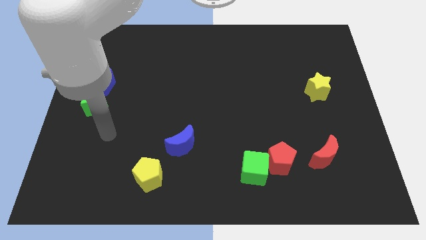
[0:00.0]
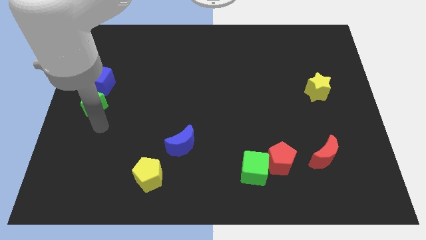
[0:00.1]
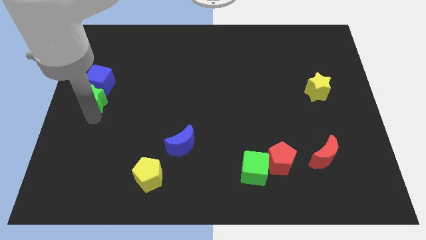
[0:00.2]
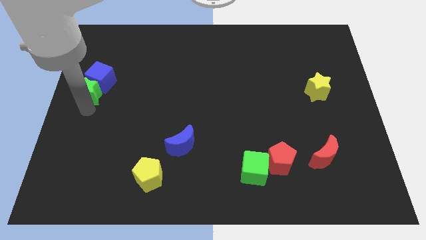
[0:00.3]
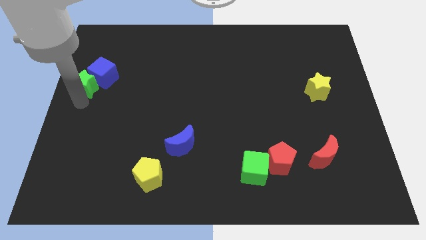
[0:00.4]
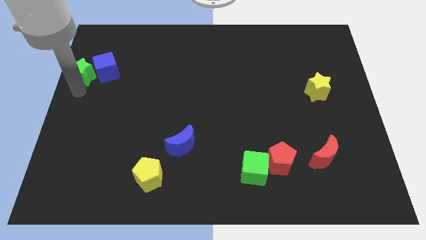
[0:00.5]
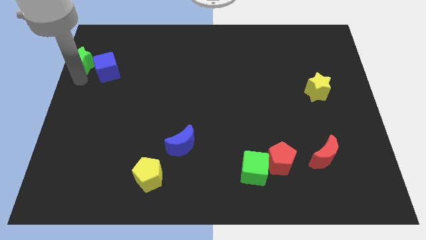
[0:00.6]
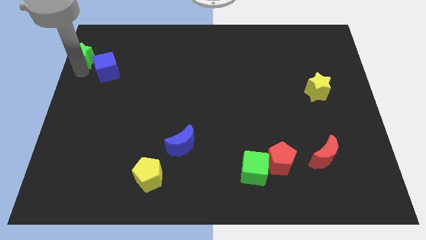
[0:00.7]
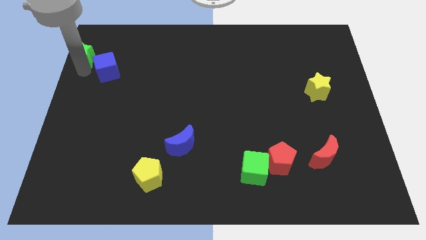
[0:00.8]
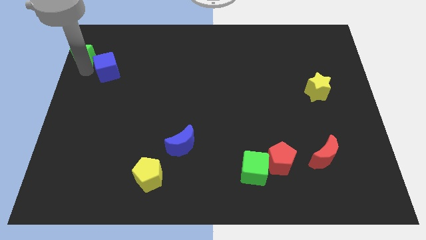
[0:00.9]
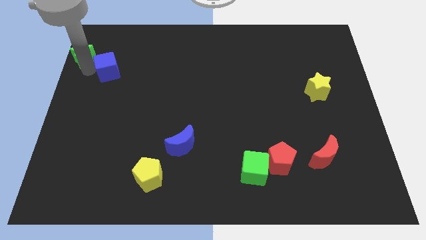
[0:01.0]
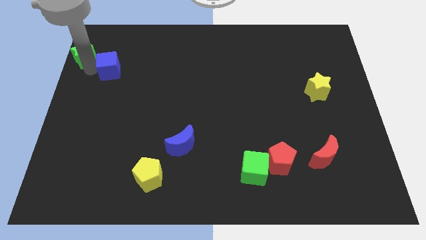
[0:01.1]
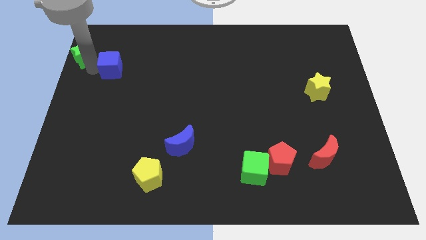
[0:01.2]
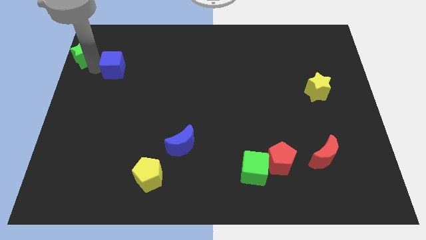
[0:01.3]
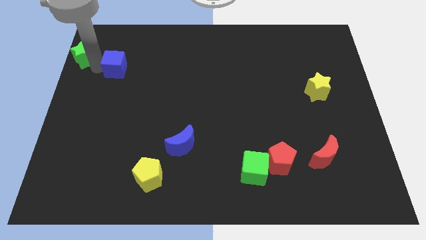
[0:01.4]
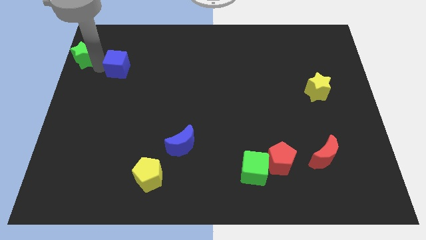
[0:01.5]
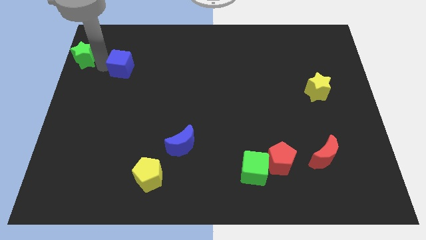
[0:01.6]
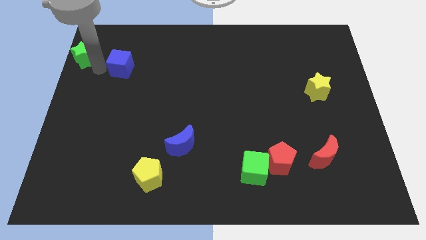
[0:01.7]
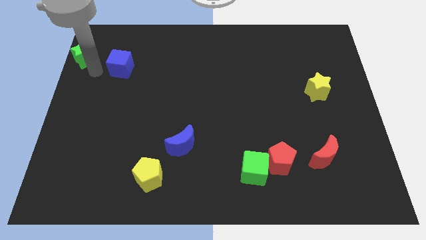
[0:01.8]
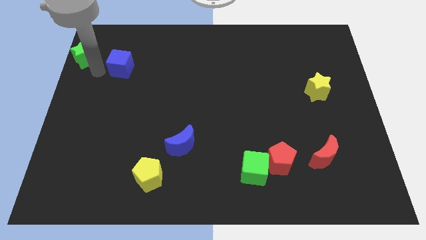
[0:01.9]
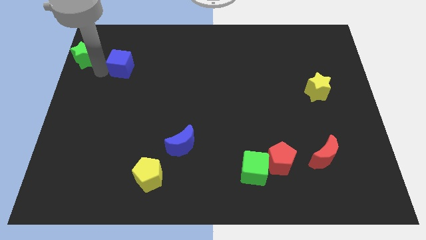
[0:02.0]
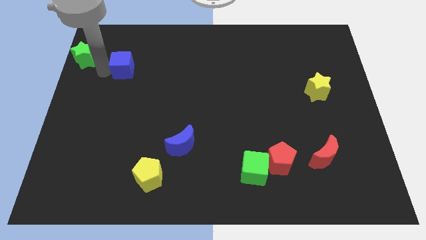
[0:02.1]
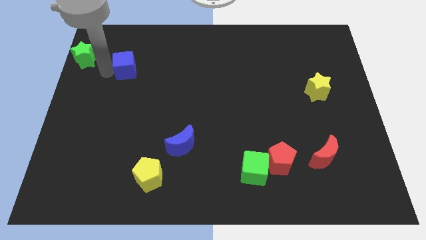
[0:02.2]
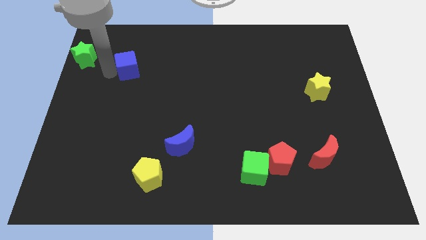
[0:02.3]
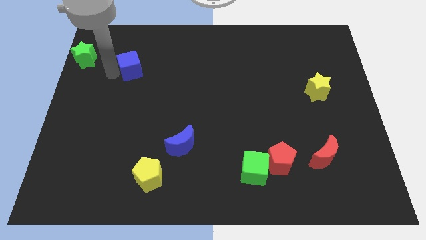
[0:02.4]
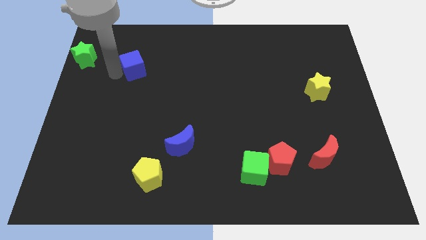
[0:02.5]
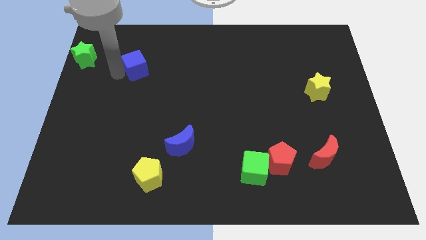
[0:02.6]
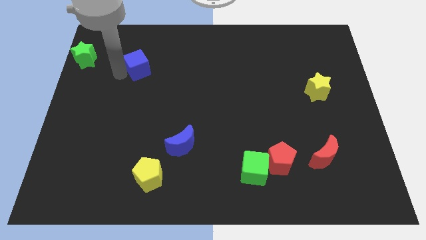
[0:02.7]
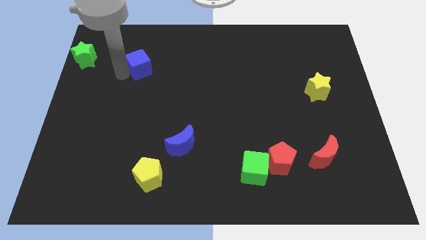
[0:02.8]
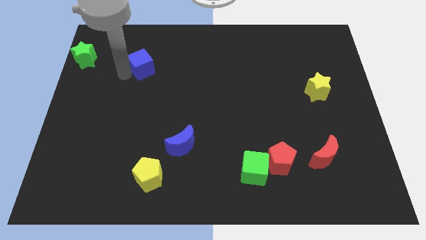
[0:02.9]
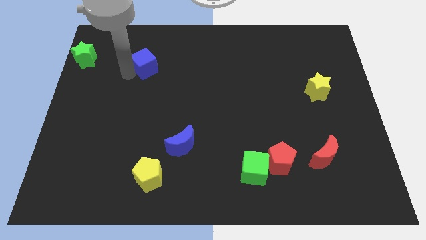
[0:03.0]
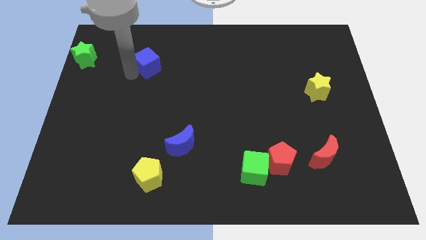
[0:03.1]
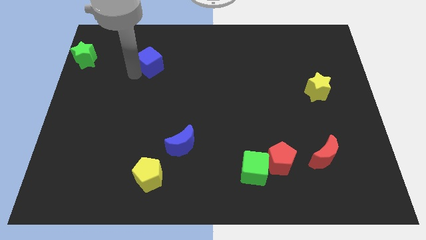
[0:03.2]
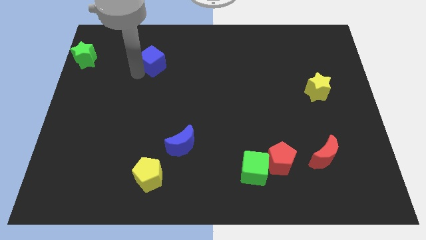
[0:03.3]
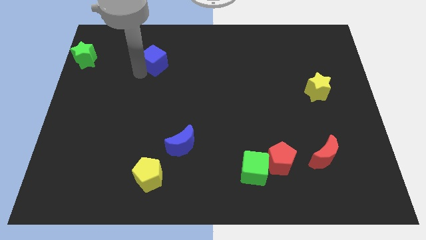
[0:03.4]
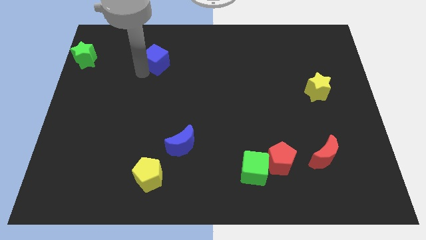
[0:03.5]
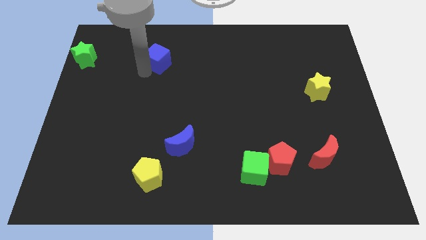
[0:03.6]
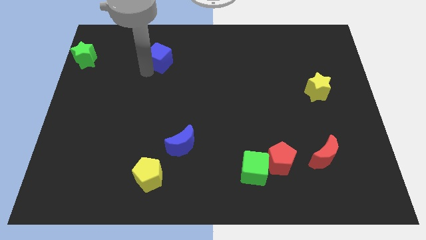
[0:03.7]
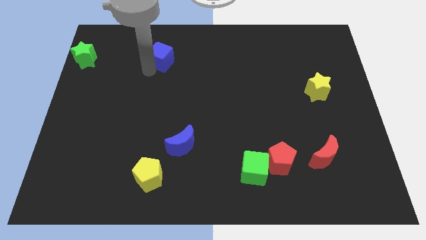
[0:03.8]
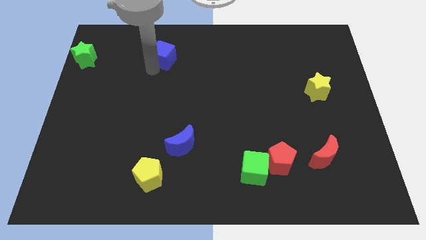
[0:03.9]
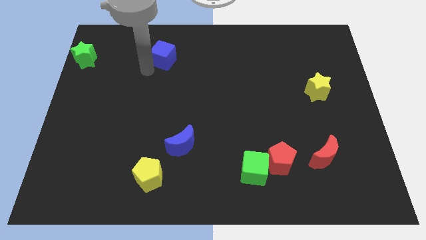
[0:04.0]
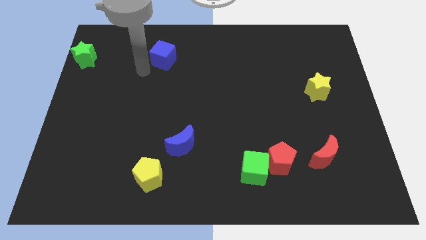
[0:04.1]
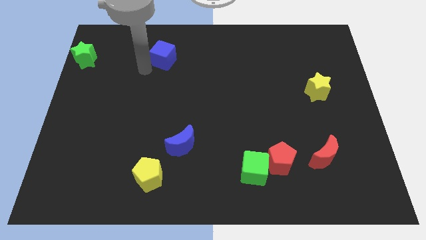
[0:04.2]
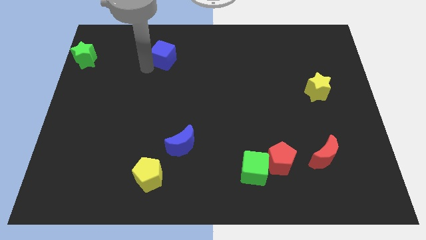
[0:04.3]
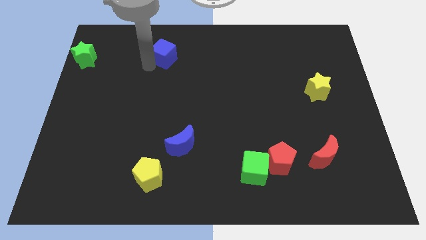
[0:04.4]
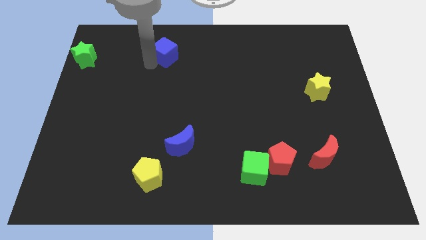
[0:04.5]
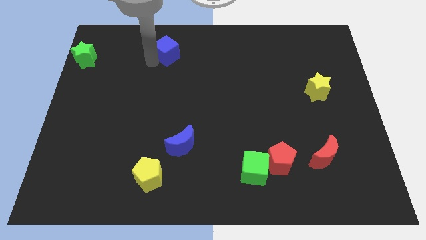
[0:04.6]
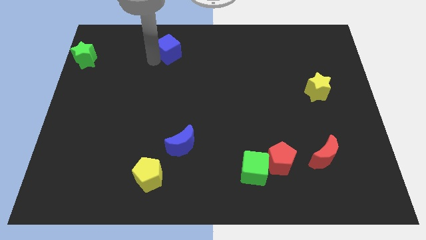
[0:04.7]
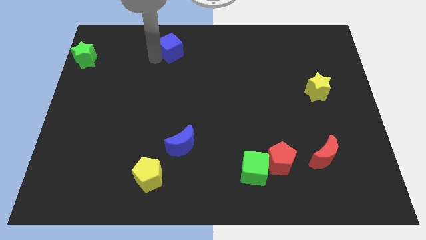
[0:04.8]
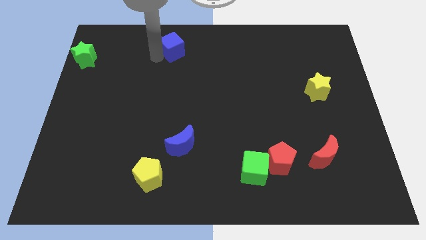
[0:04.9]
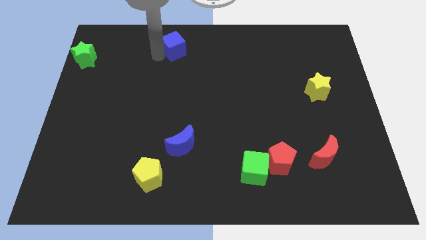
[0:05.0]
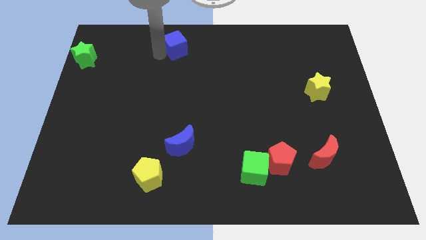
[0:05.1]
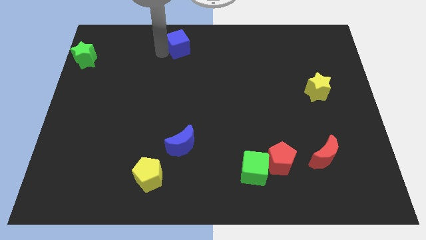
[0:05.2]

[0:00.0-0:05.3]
push the blue cube to the top
